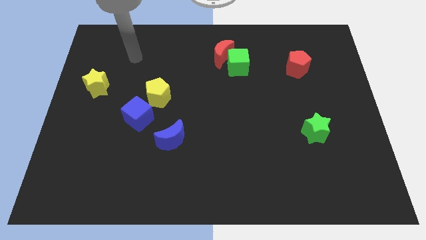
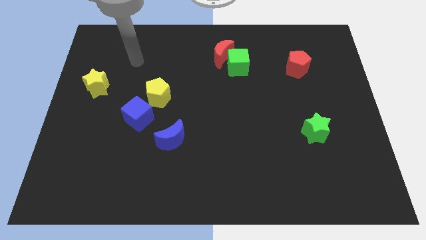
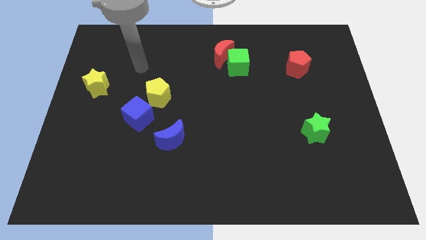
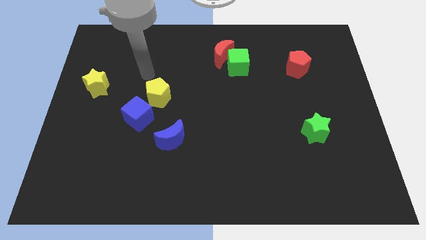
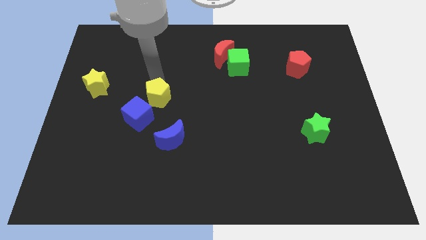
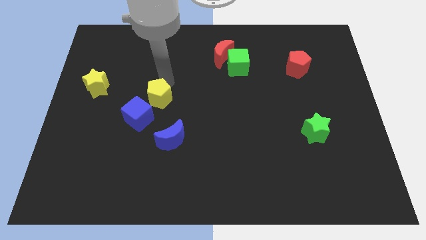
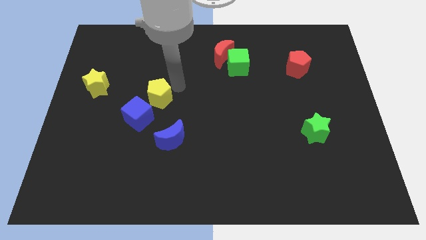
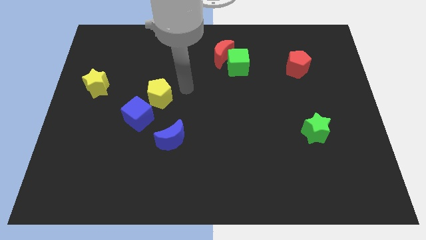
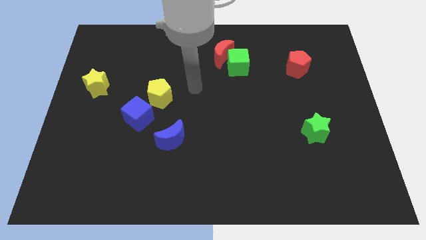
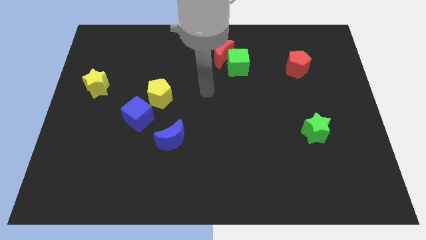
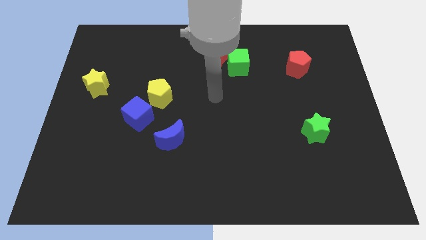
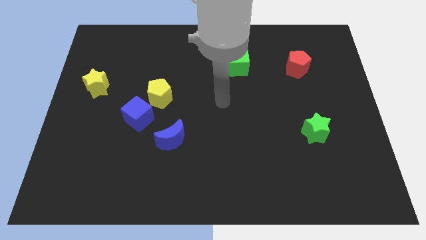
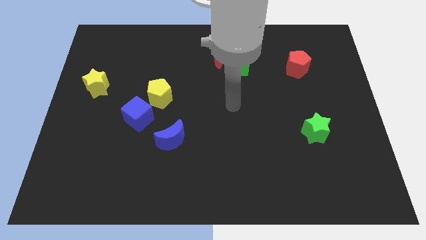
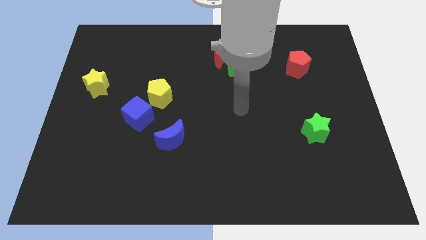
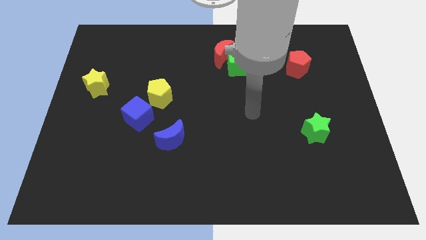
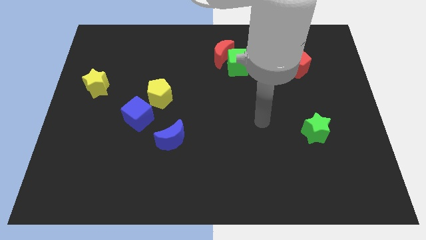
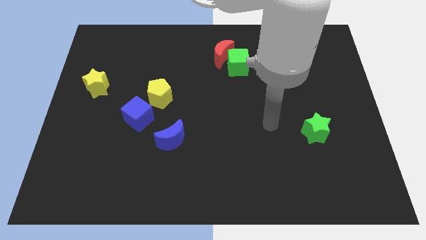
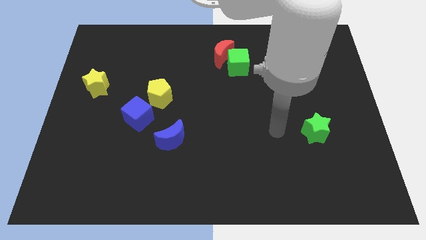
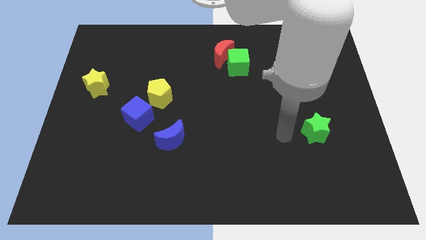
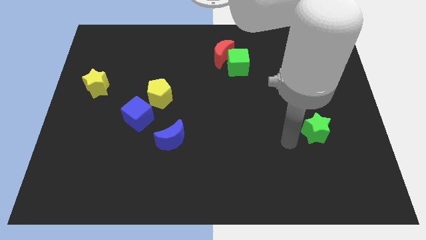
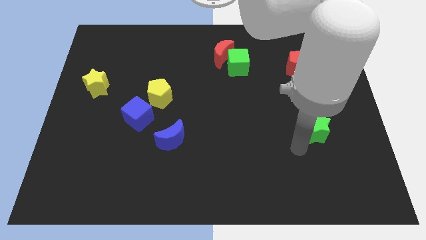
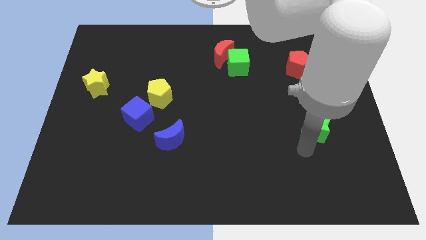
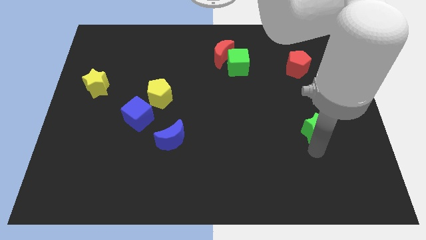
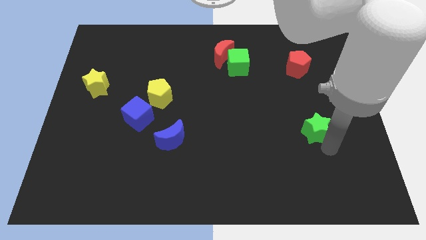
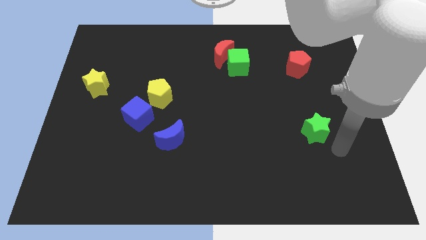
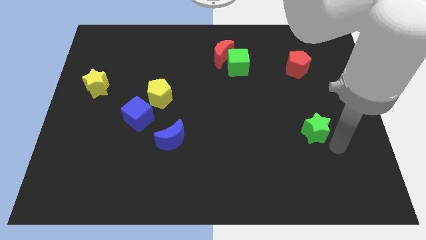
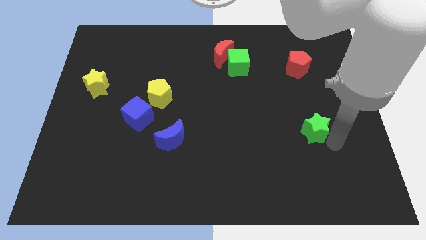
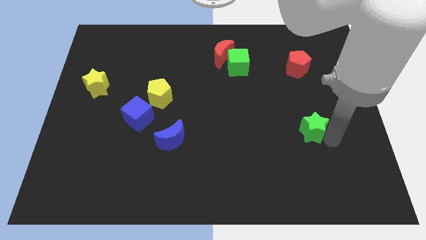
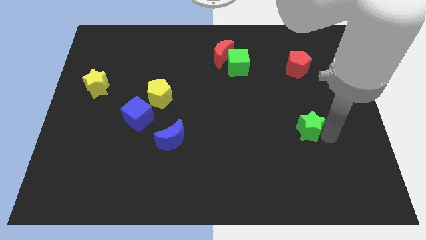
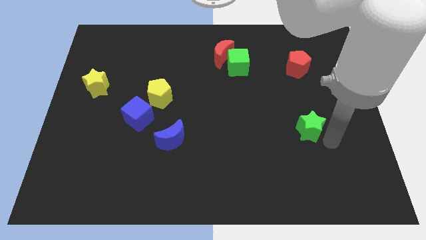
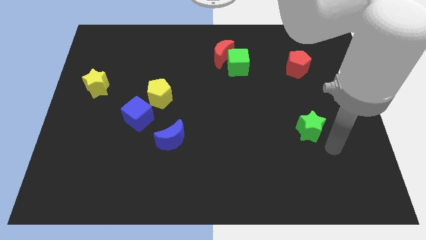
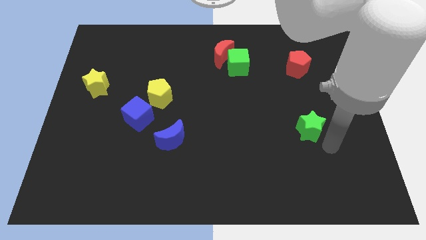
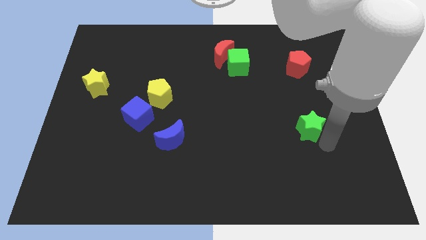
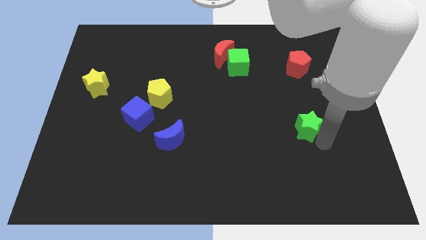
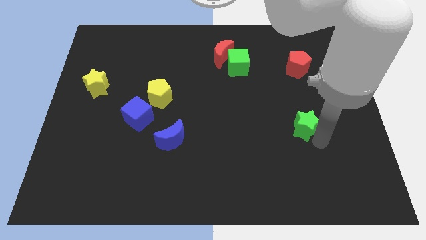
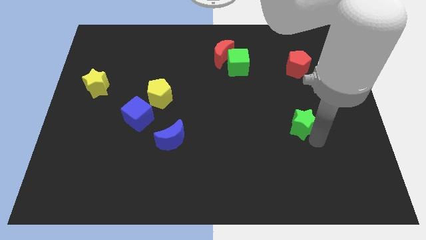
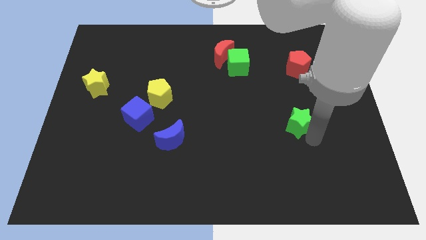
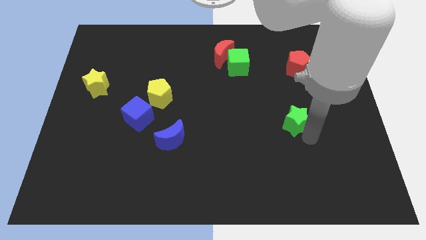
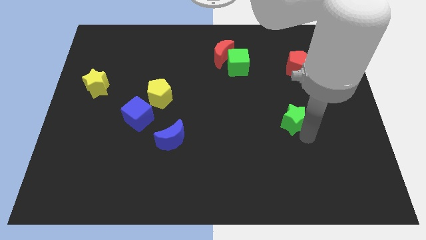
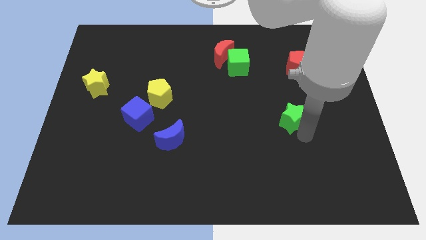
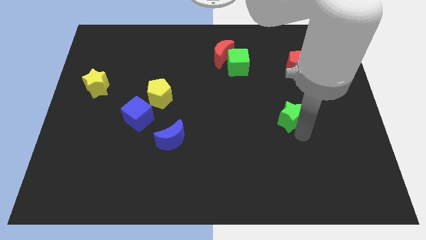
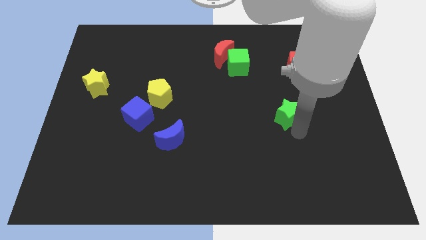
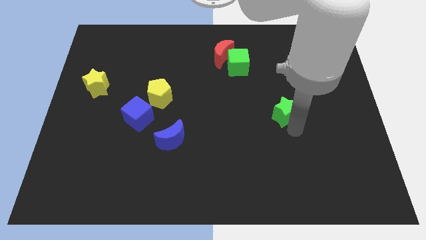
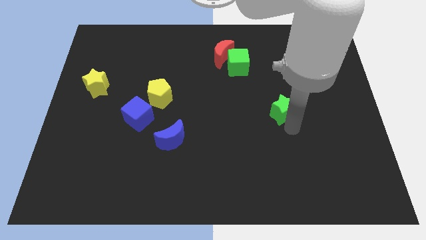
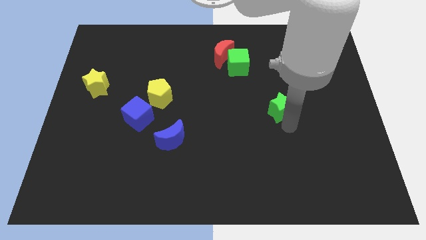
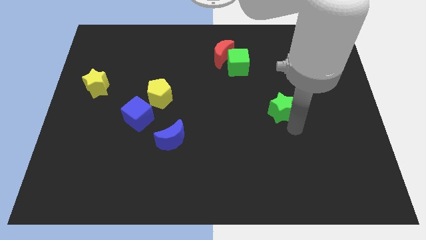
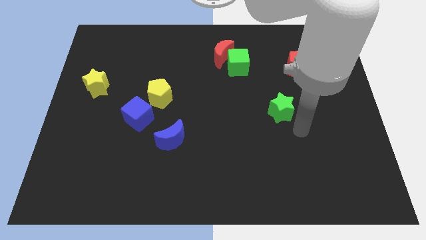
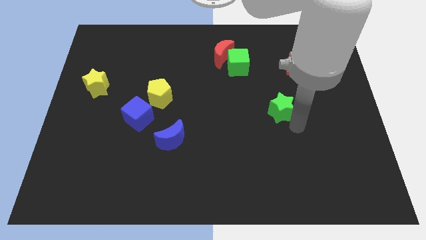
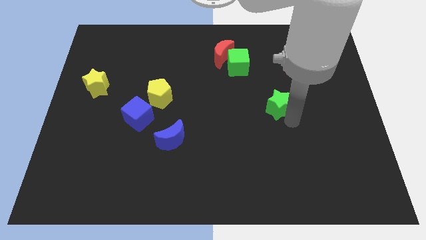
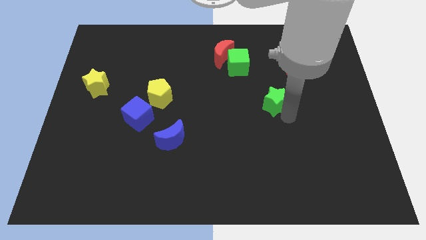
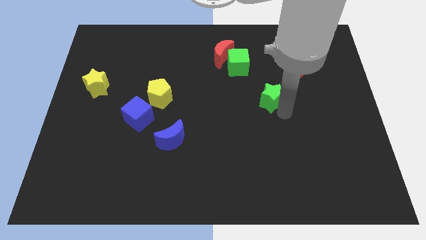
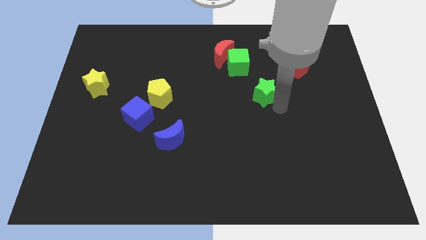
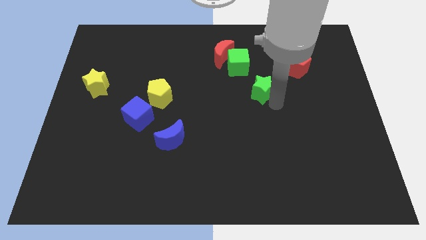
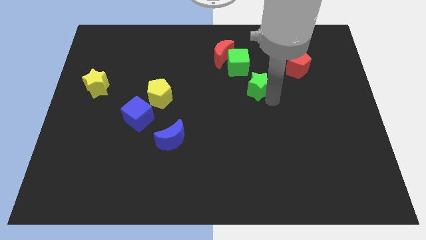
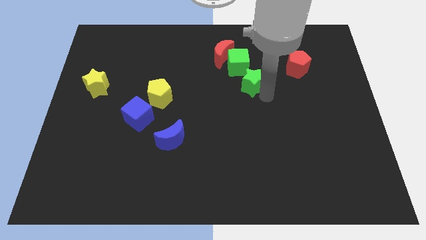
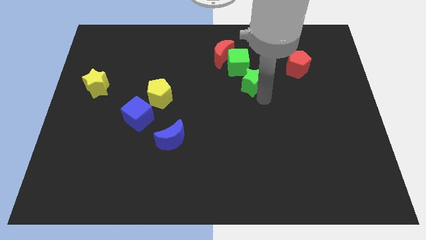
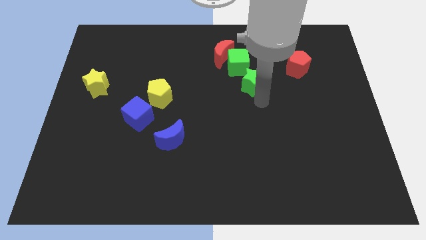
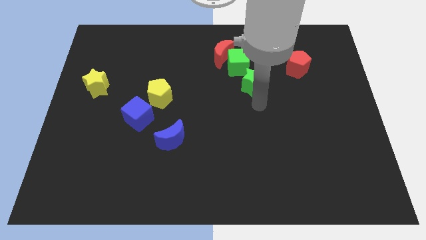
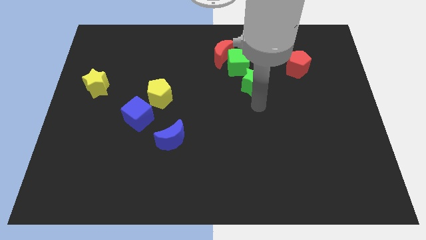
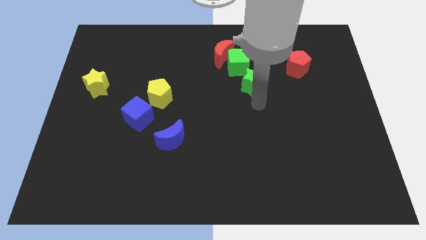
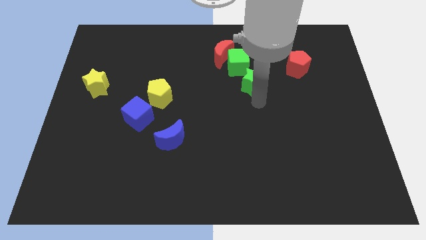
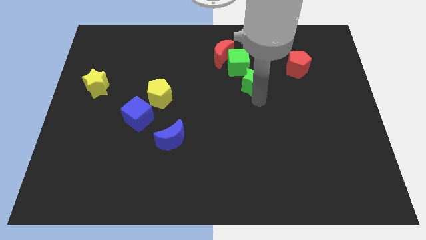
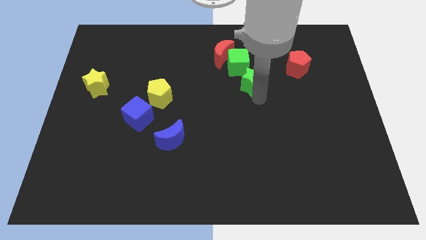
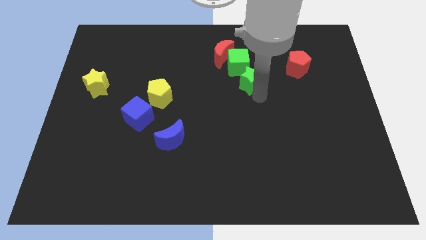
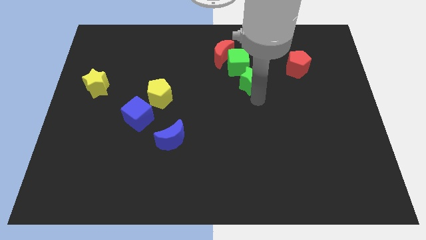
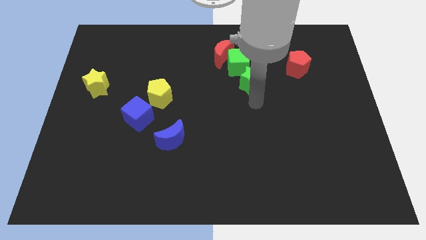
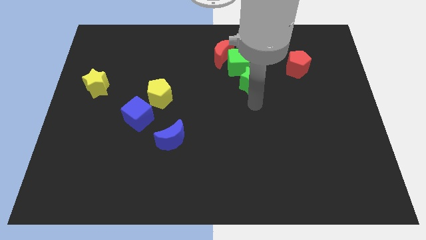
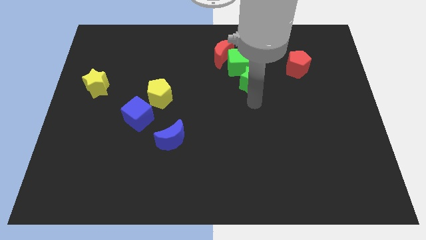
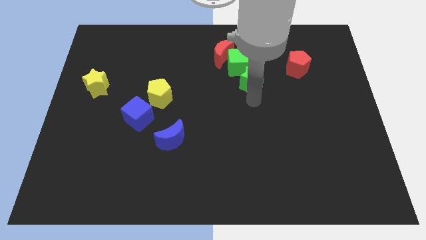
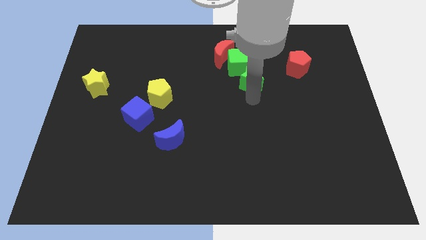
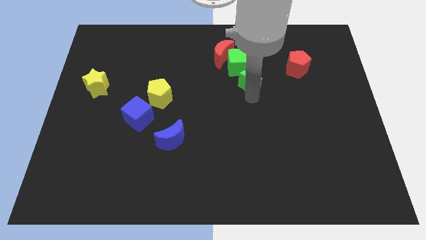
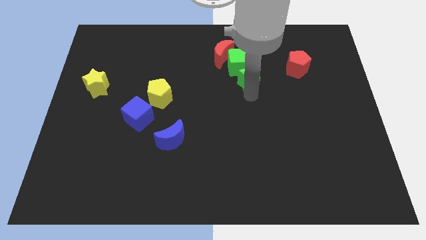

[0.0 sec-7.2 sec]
slide the green star next to the green cube
